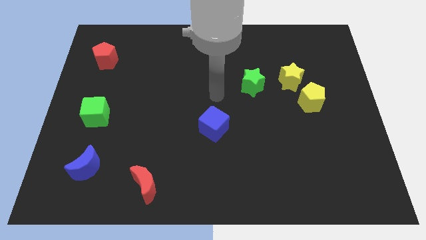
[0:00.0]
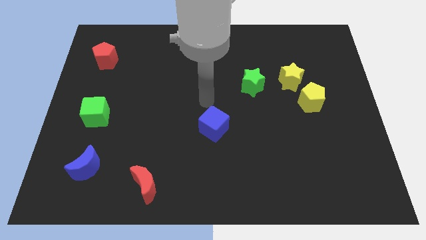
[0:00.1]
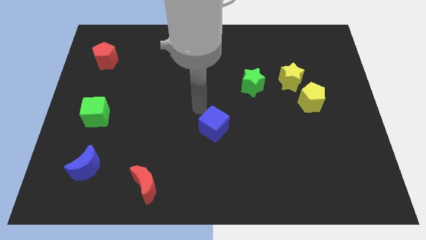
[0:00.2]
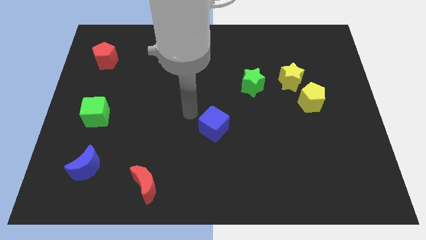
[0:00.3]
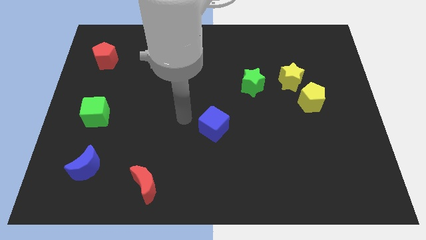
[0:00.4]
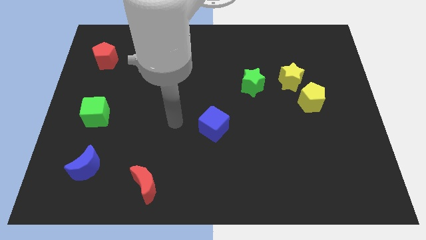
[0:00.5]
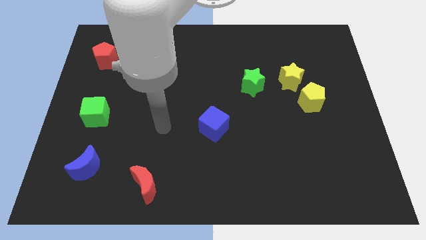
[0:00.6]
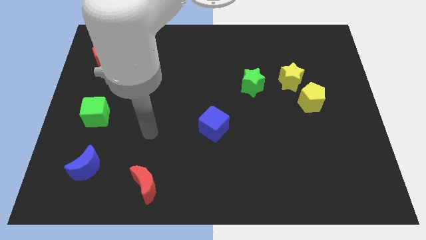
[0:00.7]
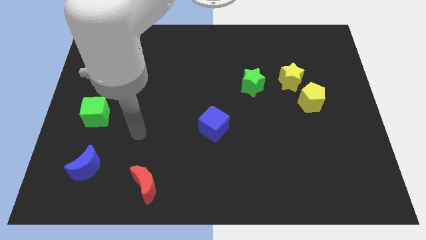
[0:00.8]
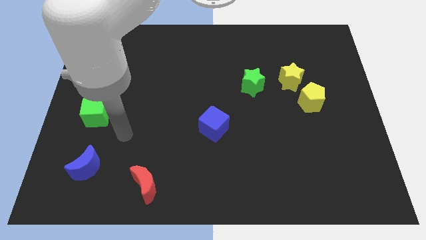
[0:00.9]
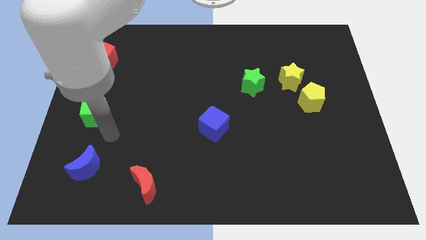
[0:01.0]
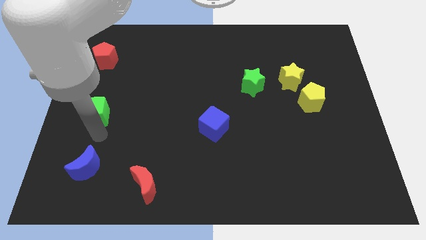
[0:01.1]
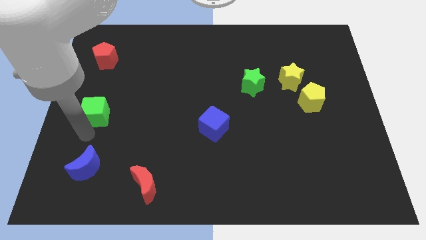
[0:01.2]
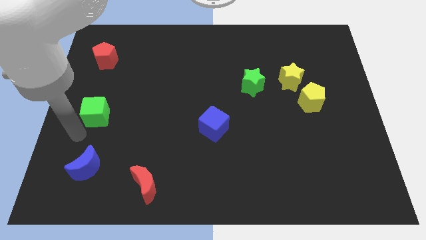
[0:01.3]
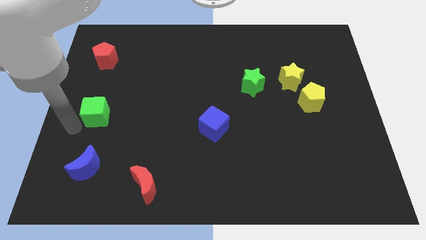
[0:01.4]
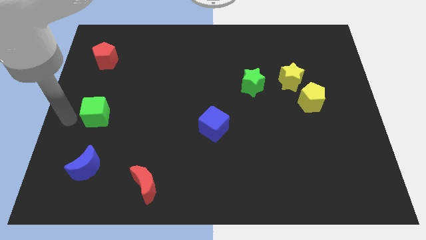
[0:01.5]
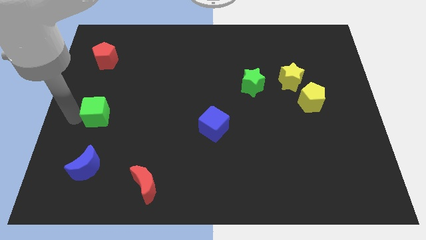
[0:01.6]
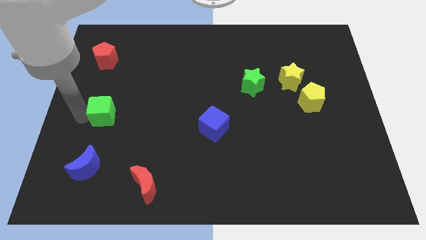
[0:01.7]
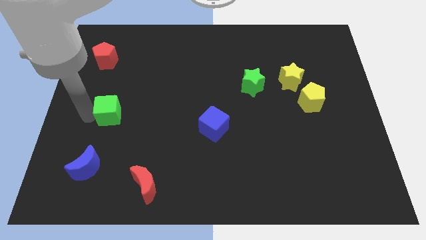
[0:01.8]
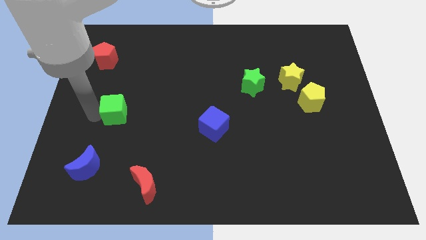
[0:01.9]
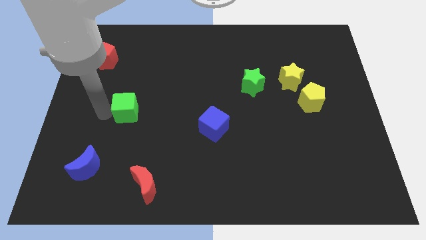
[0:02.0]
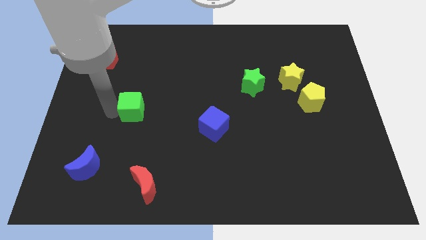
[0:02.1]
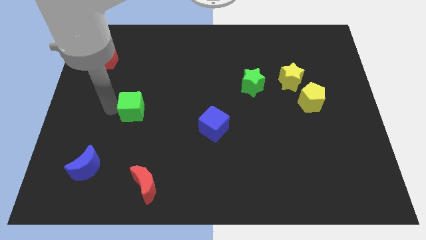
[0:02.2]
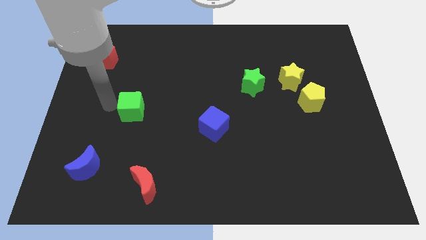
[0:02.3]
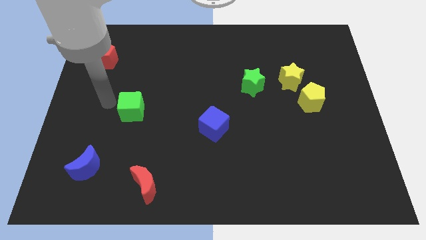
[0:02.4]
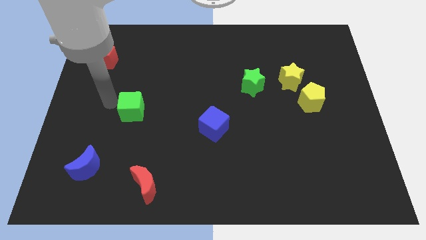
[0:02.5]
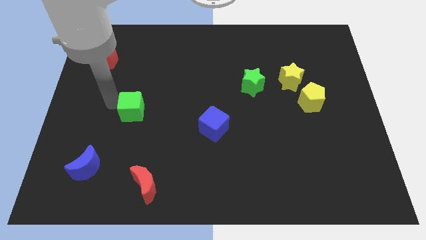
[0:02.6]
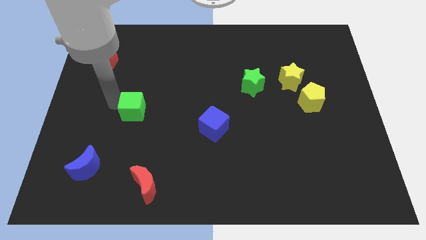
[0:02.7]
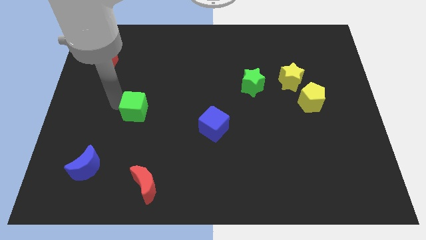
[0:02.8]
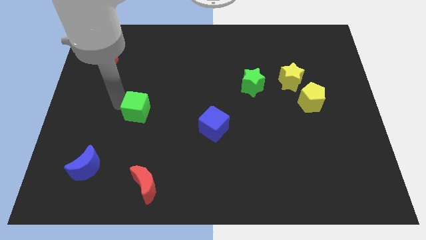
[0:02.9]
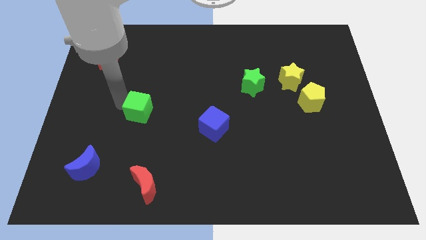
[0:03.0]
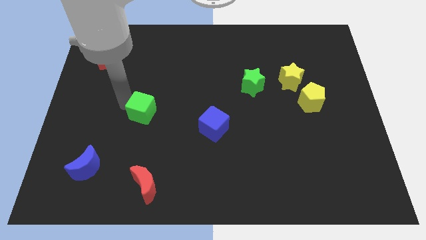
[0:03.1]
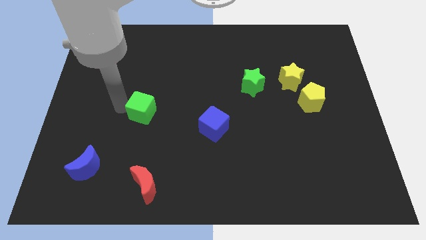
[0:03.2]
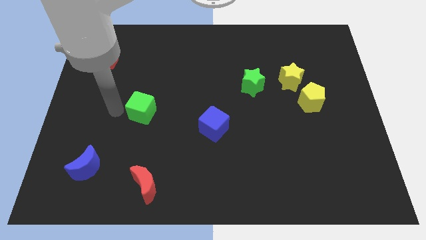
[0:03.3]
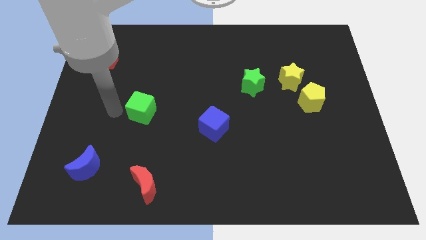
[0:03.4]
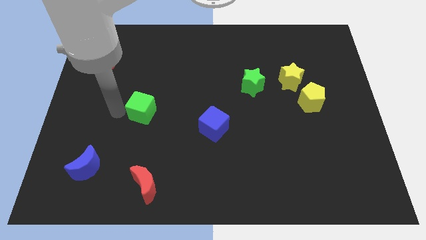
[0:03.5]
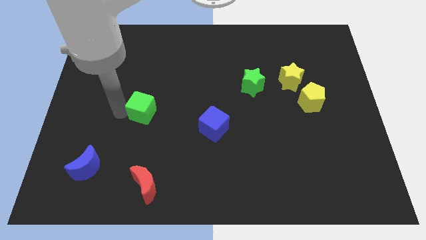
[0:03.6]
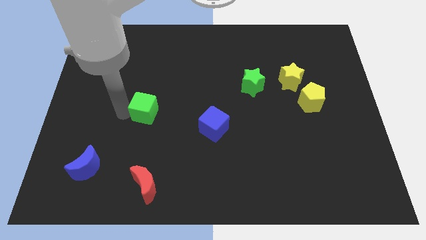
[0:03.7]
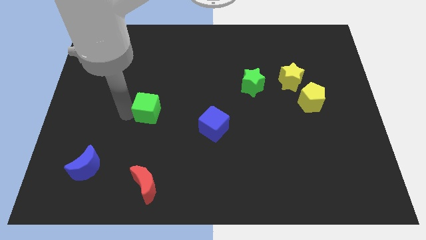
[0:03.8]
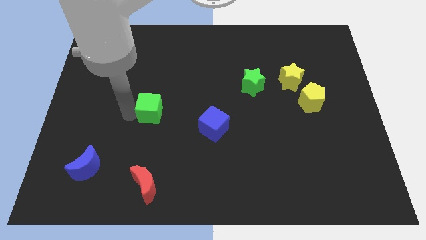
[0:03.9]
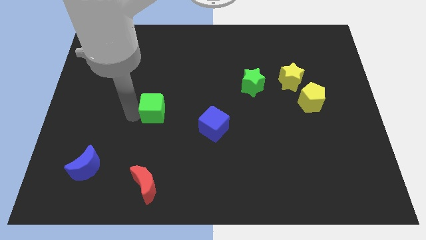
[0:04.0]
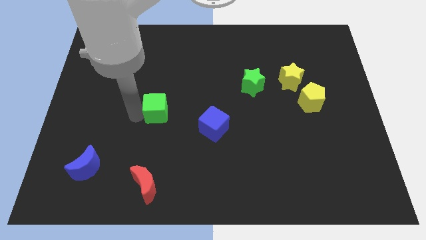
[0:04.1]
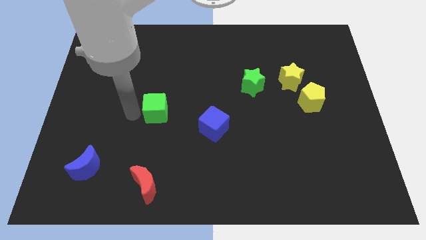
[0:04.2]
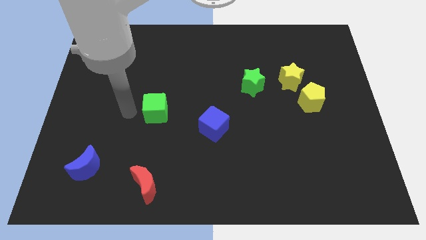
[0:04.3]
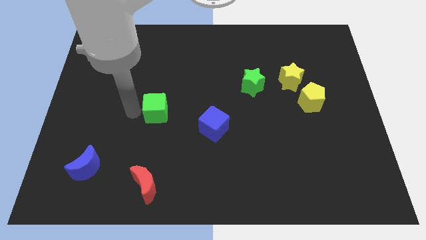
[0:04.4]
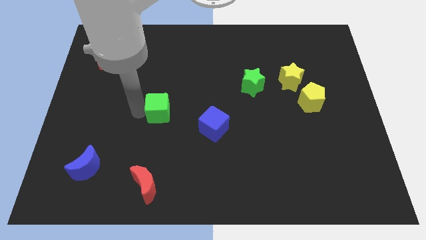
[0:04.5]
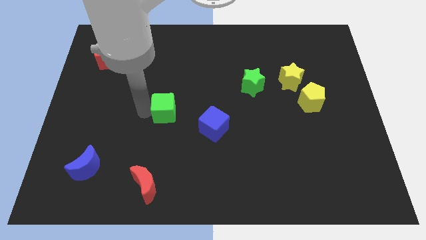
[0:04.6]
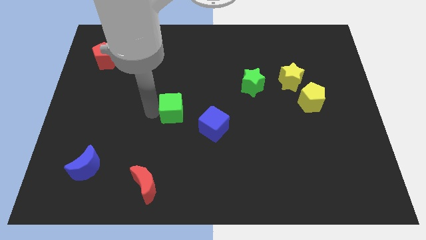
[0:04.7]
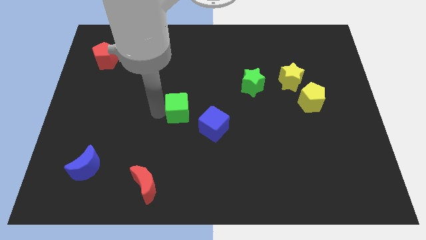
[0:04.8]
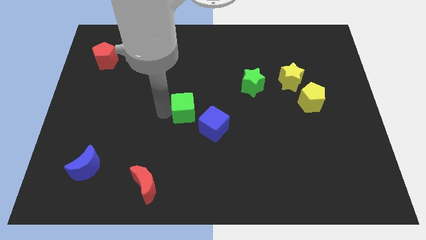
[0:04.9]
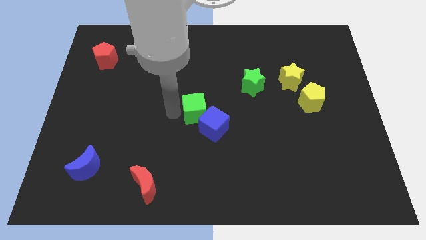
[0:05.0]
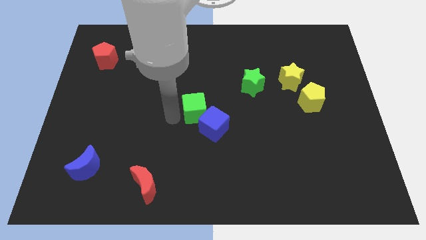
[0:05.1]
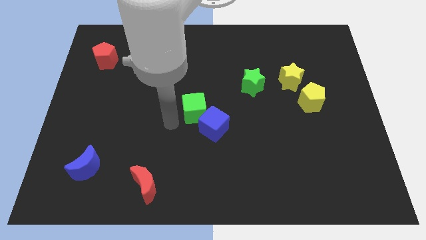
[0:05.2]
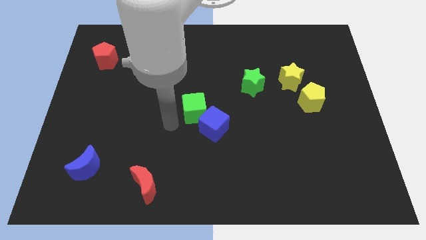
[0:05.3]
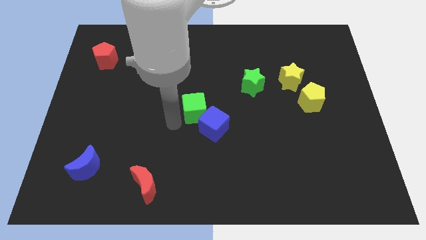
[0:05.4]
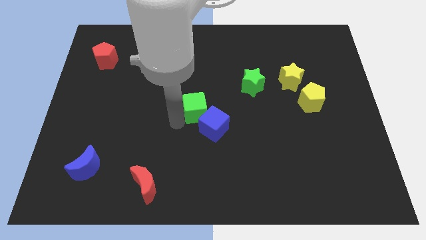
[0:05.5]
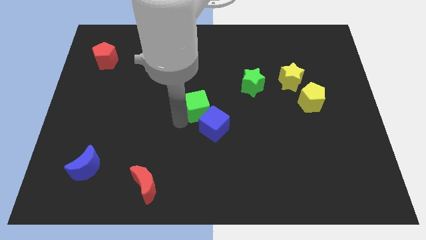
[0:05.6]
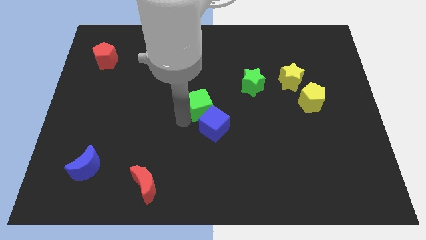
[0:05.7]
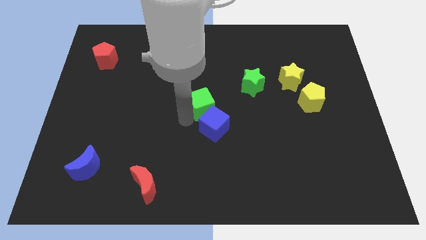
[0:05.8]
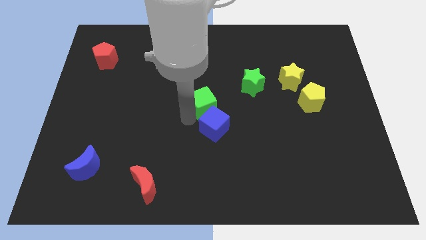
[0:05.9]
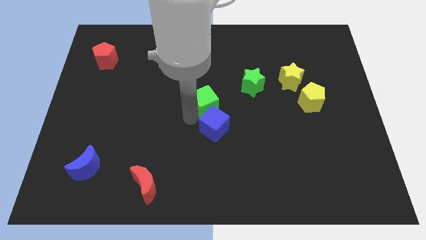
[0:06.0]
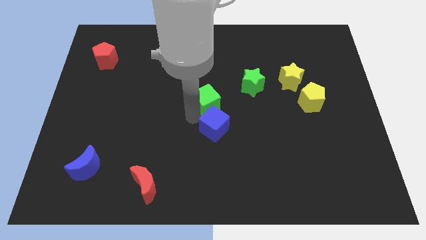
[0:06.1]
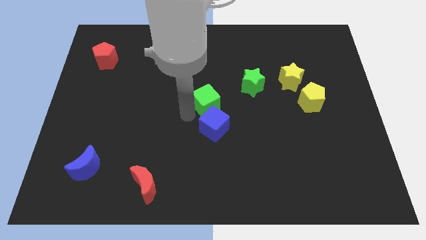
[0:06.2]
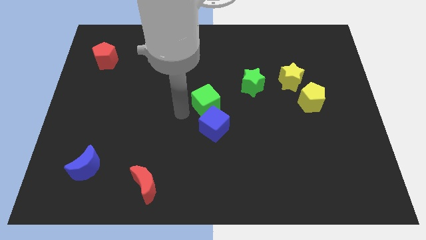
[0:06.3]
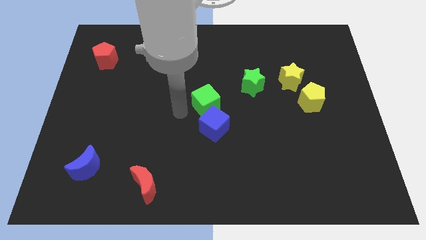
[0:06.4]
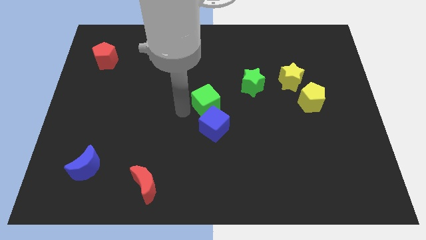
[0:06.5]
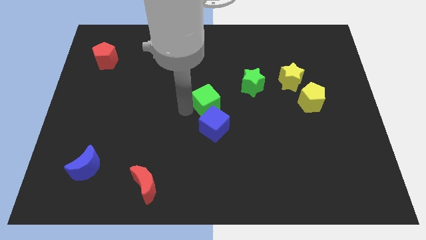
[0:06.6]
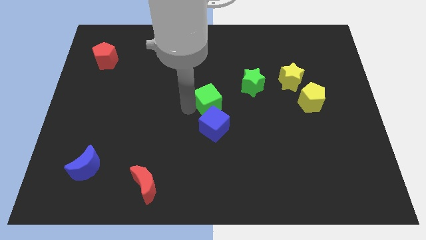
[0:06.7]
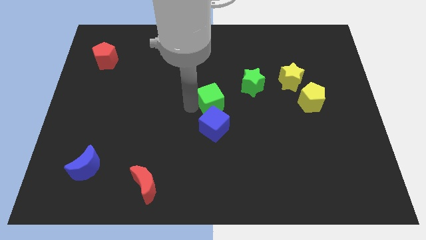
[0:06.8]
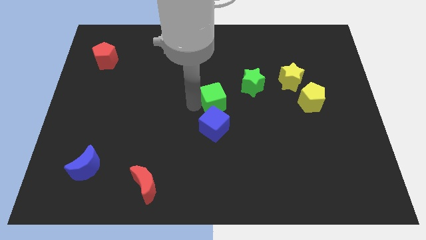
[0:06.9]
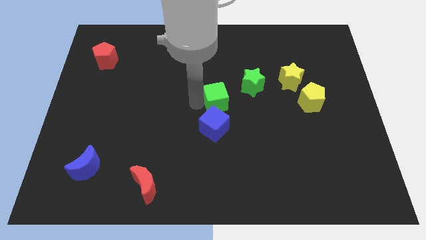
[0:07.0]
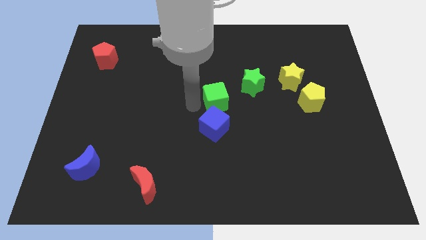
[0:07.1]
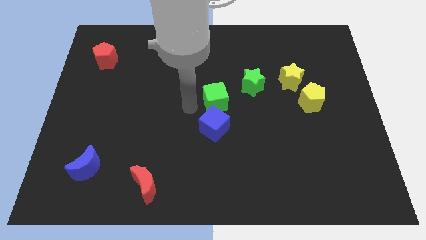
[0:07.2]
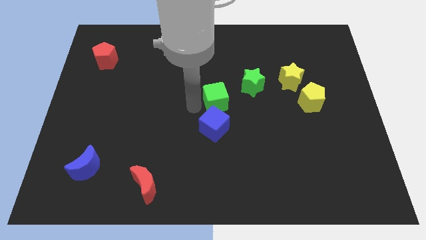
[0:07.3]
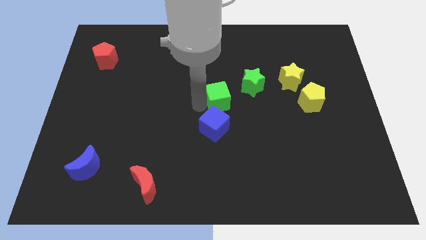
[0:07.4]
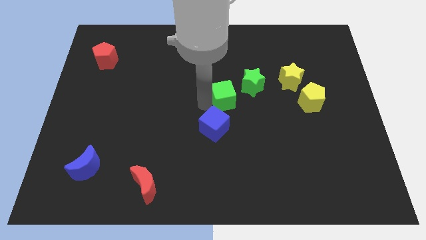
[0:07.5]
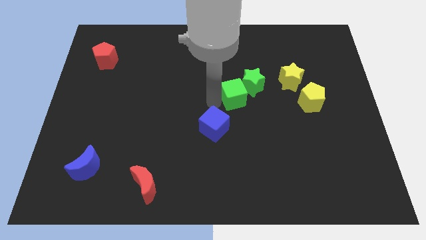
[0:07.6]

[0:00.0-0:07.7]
push the green cube towards the green star
